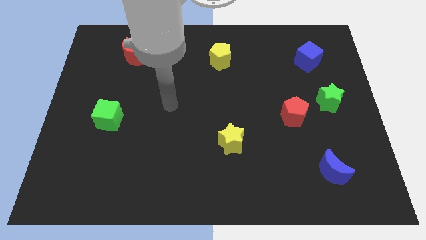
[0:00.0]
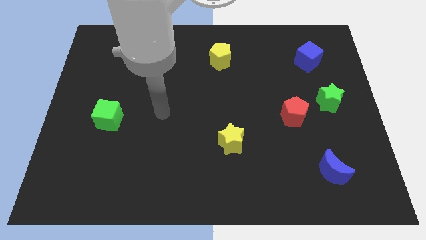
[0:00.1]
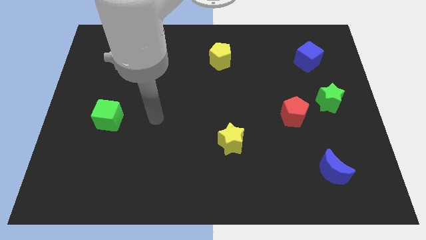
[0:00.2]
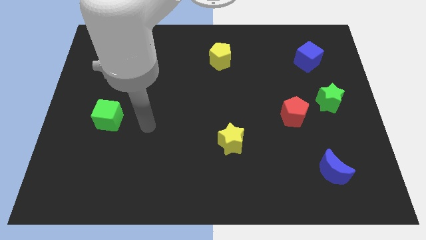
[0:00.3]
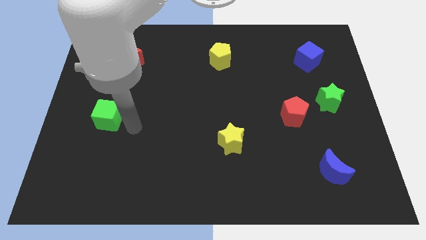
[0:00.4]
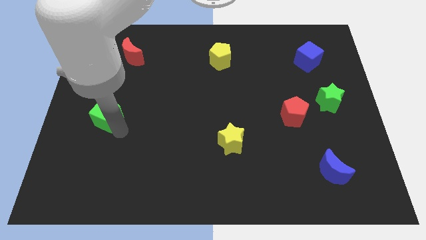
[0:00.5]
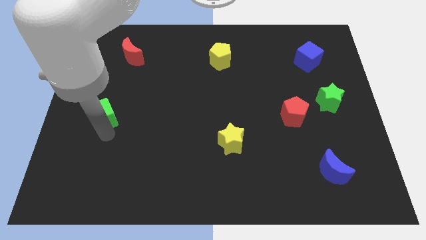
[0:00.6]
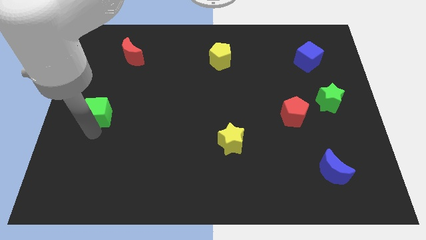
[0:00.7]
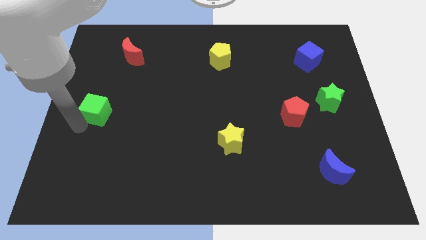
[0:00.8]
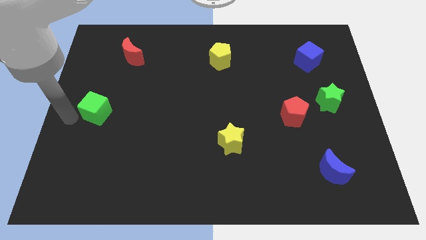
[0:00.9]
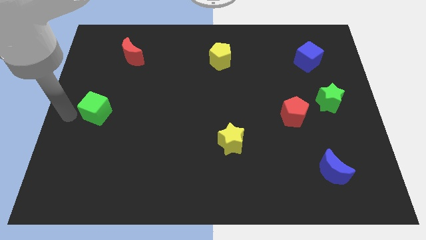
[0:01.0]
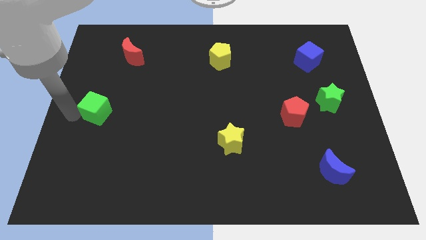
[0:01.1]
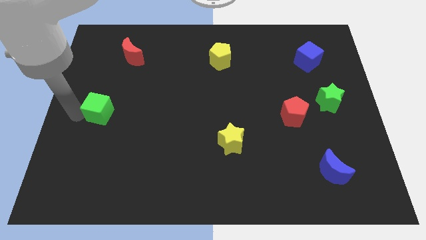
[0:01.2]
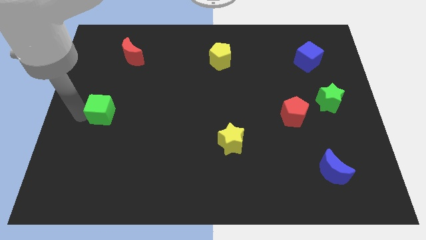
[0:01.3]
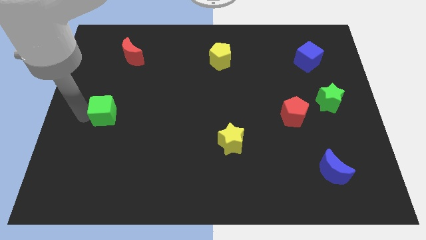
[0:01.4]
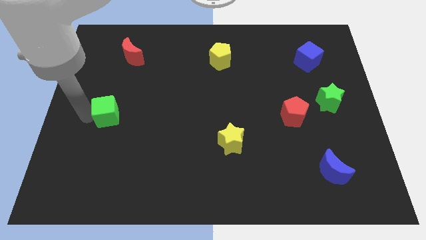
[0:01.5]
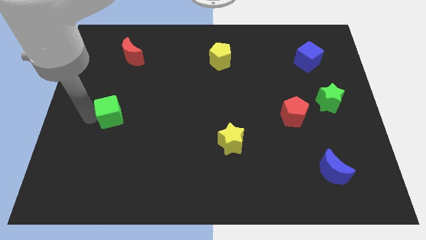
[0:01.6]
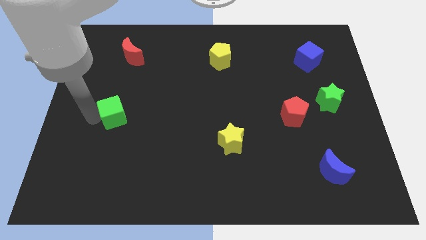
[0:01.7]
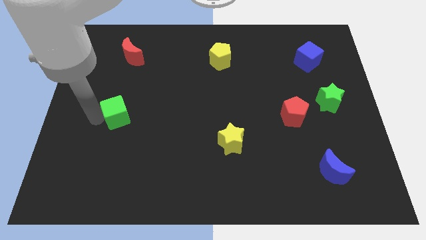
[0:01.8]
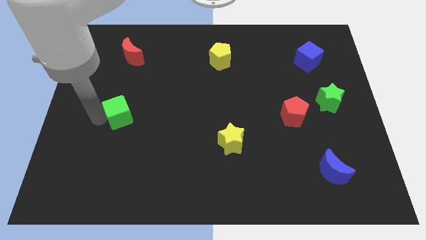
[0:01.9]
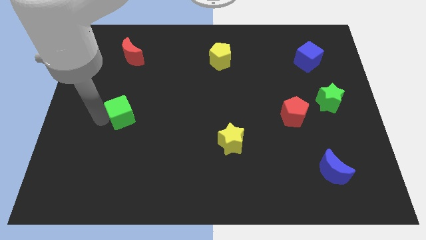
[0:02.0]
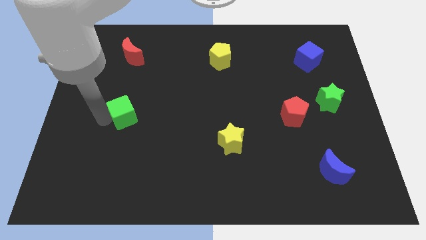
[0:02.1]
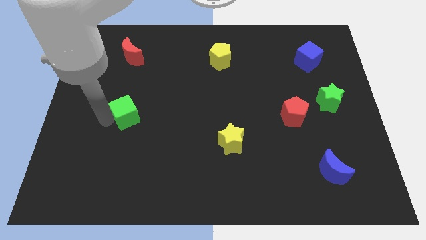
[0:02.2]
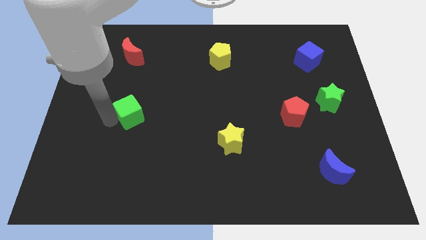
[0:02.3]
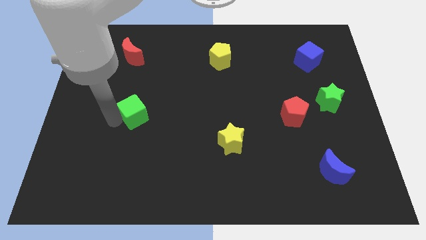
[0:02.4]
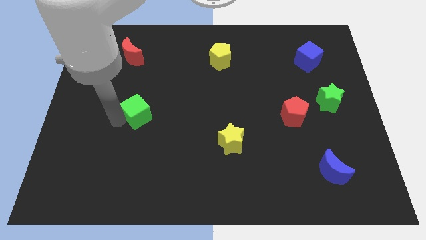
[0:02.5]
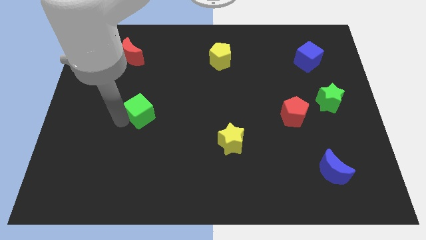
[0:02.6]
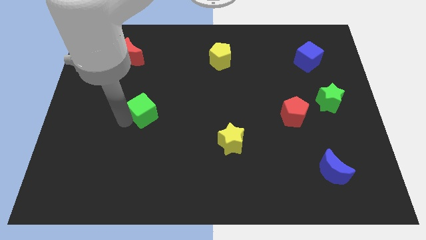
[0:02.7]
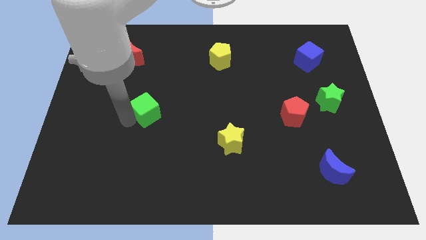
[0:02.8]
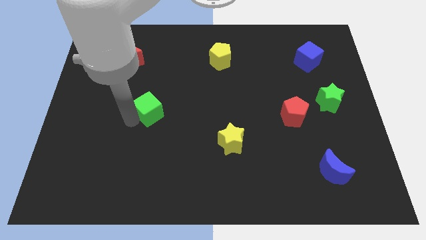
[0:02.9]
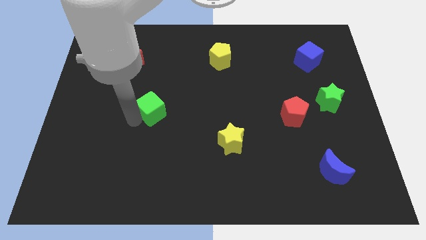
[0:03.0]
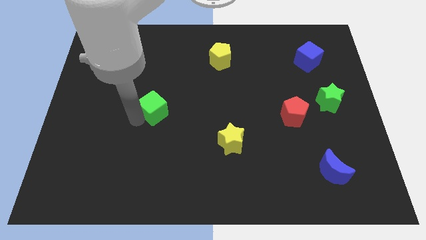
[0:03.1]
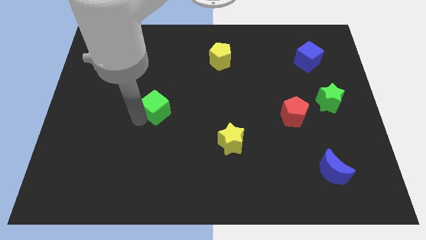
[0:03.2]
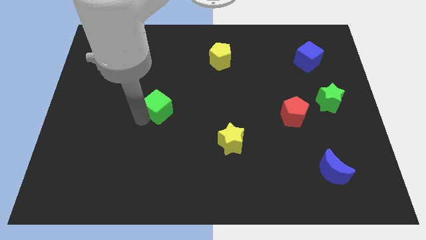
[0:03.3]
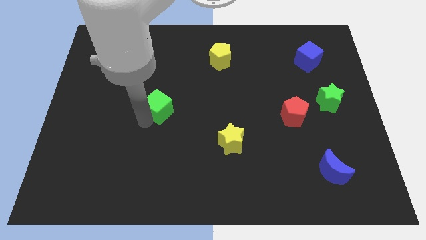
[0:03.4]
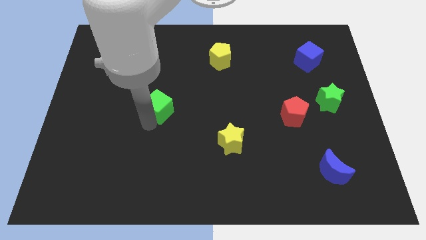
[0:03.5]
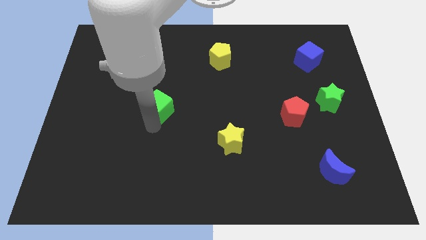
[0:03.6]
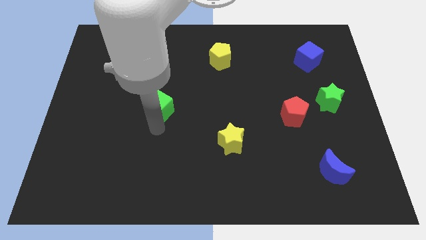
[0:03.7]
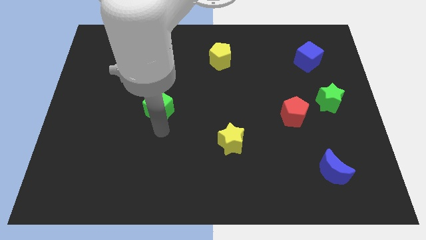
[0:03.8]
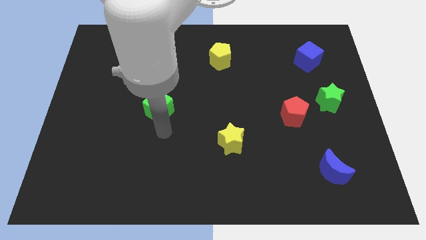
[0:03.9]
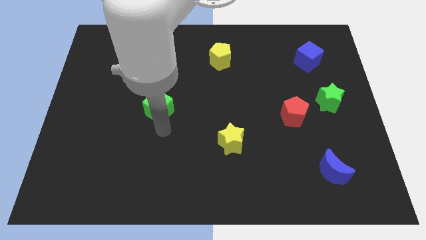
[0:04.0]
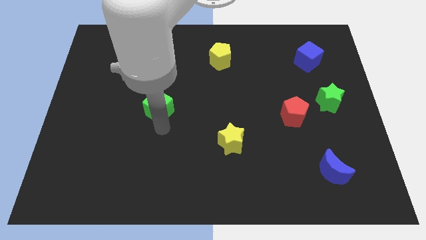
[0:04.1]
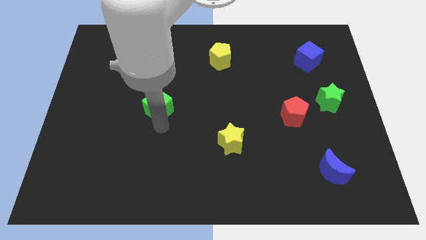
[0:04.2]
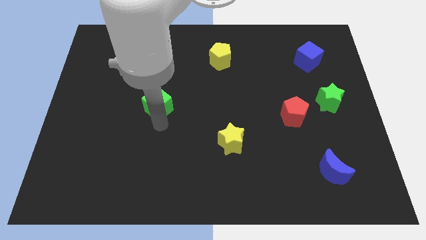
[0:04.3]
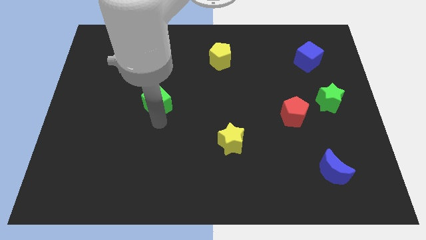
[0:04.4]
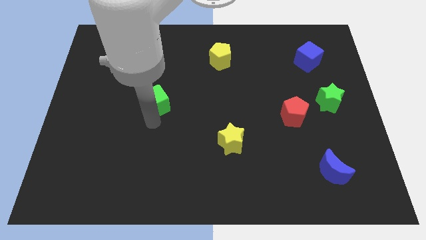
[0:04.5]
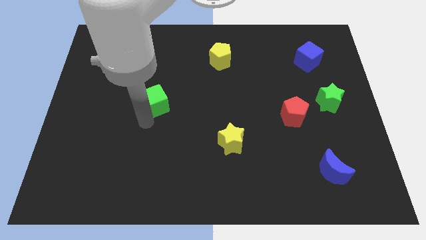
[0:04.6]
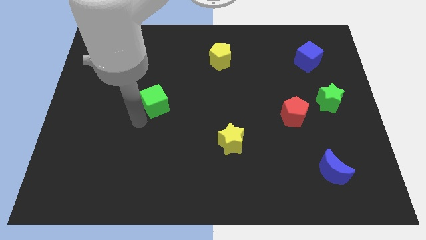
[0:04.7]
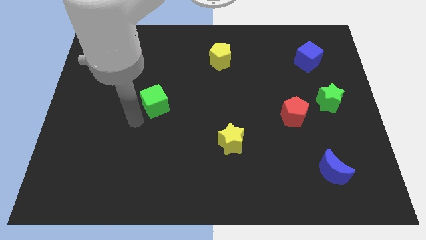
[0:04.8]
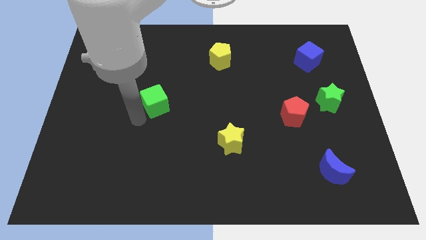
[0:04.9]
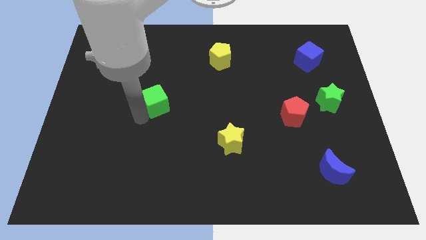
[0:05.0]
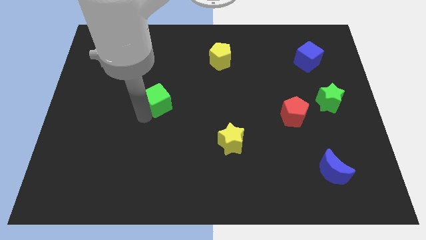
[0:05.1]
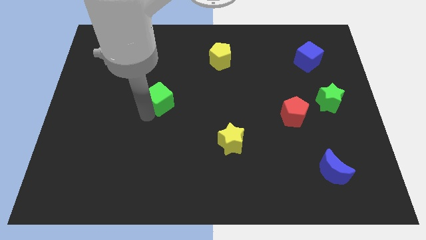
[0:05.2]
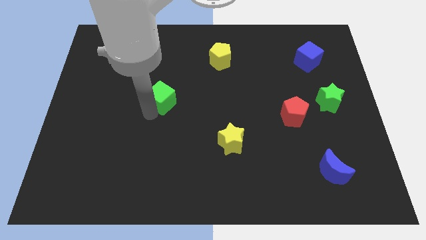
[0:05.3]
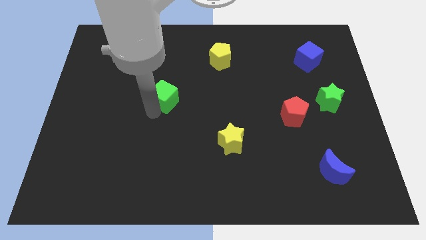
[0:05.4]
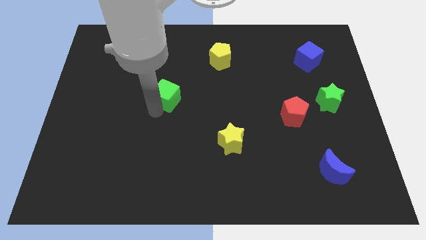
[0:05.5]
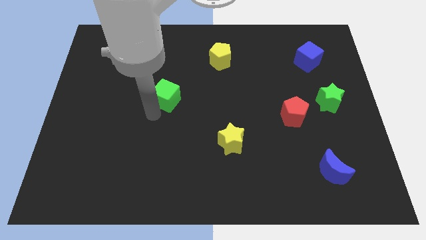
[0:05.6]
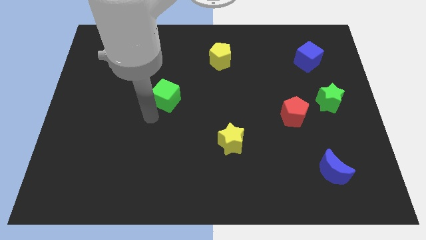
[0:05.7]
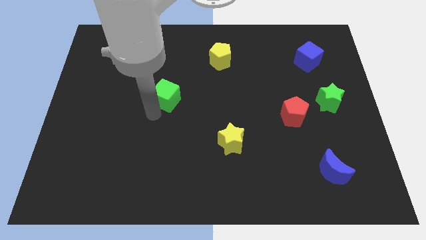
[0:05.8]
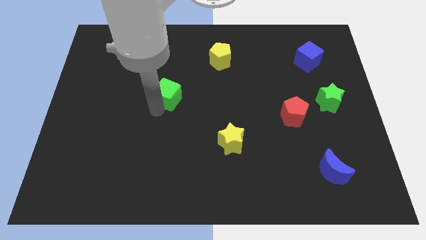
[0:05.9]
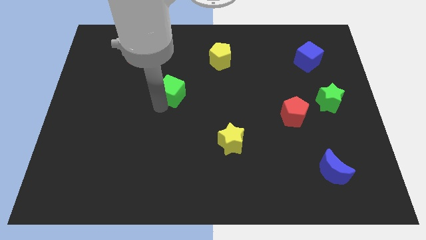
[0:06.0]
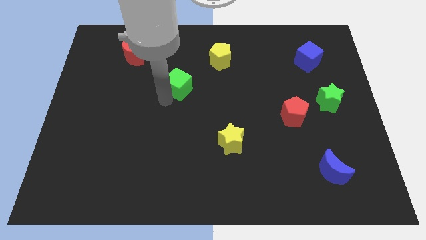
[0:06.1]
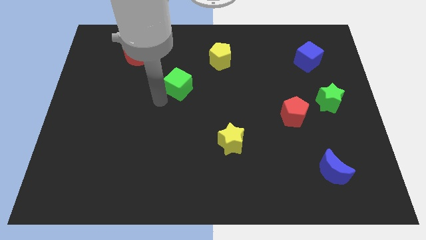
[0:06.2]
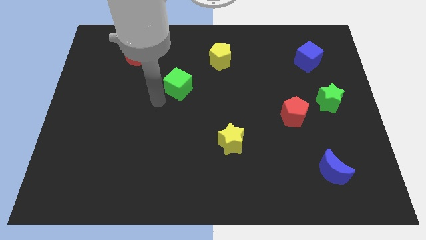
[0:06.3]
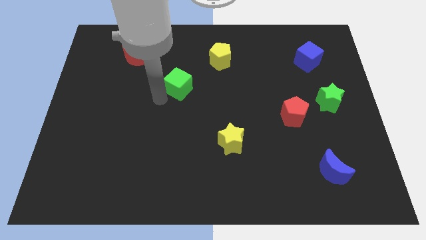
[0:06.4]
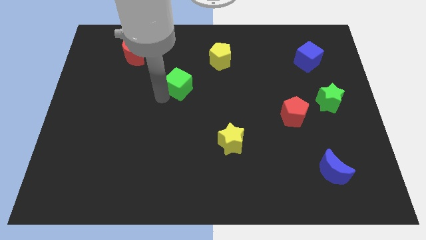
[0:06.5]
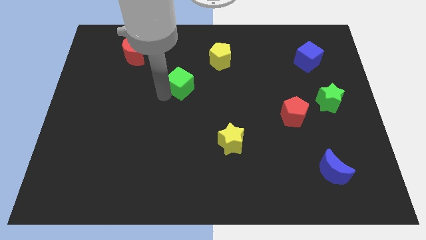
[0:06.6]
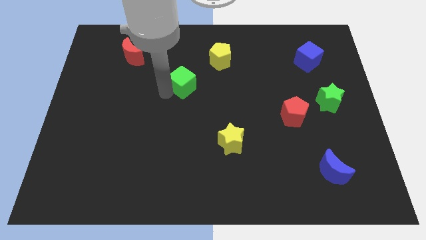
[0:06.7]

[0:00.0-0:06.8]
push the green cube to the bottom left side of the yellow pentagon
